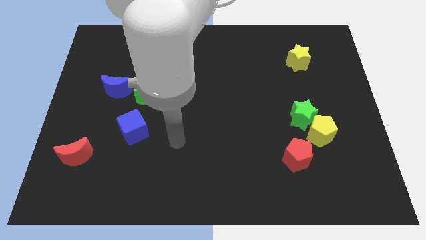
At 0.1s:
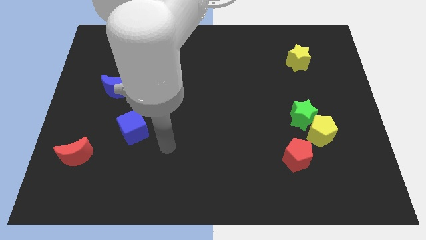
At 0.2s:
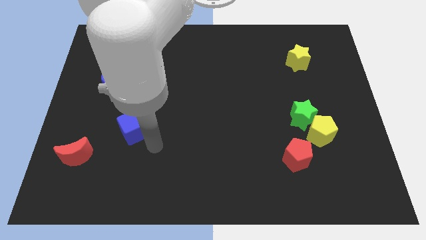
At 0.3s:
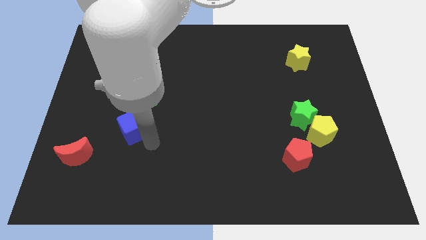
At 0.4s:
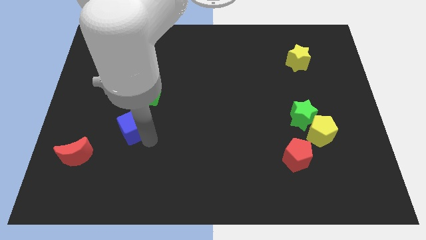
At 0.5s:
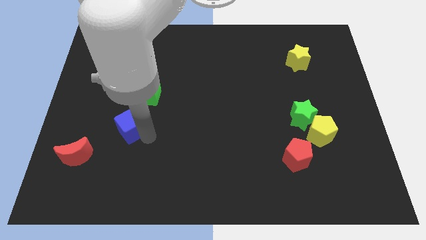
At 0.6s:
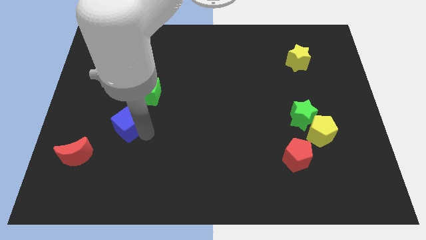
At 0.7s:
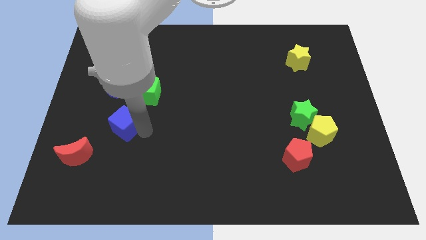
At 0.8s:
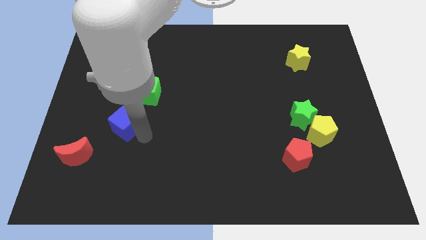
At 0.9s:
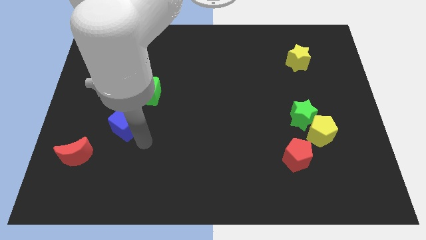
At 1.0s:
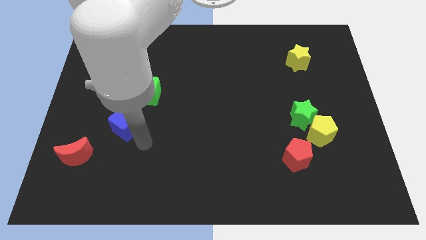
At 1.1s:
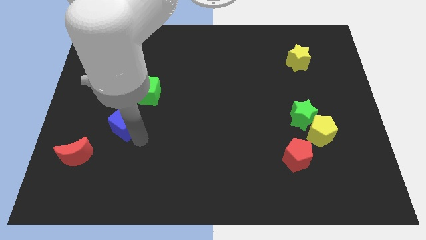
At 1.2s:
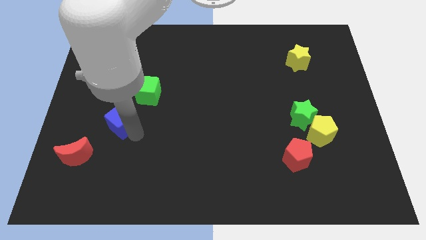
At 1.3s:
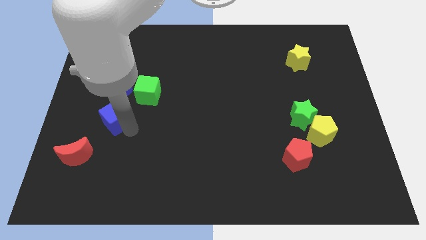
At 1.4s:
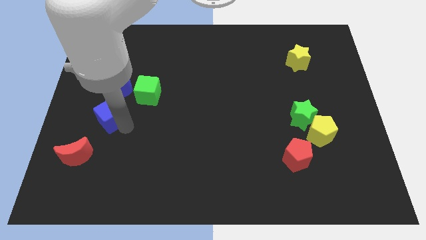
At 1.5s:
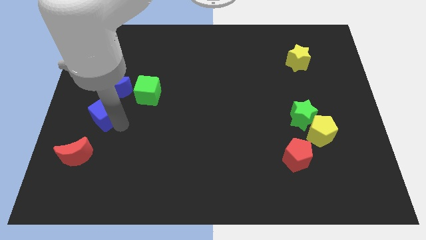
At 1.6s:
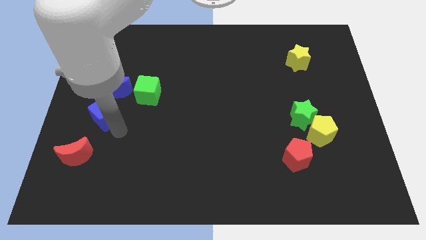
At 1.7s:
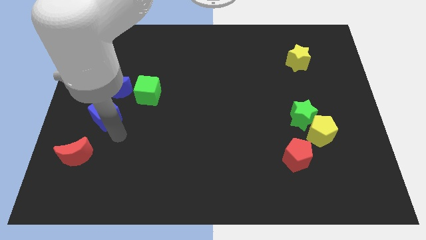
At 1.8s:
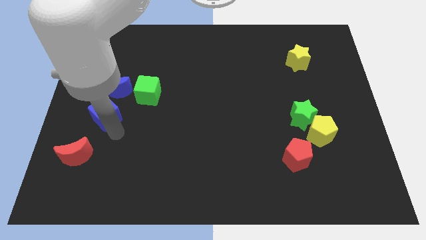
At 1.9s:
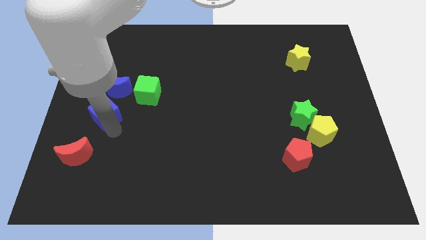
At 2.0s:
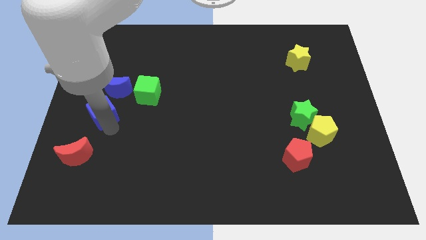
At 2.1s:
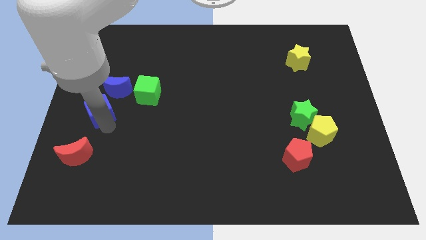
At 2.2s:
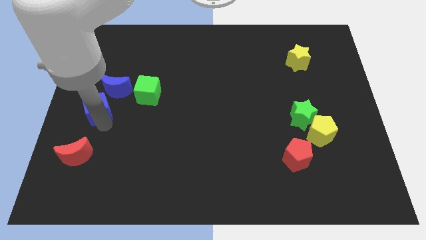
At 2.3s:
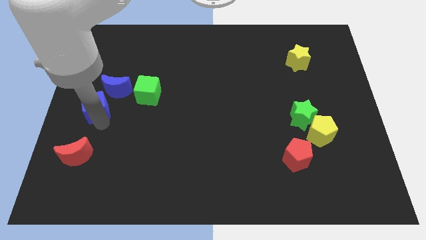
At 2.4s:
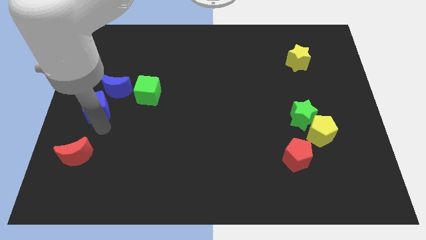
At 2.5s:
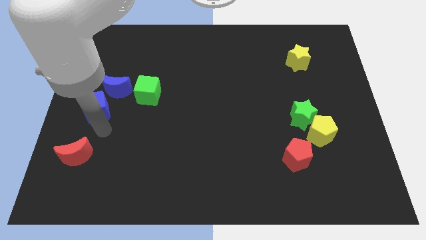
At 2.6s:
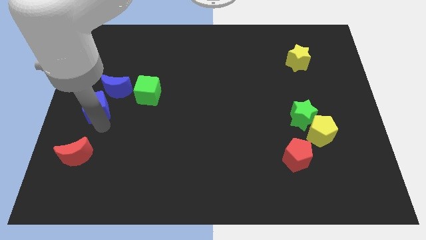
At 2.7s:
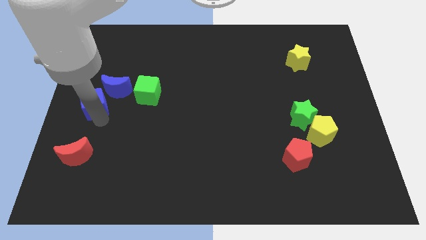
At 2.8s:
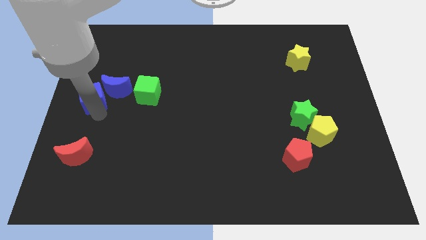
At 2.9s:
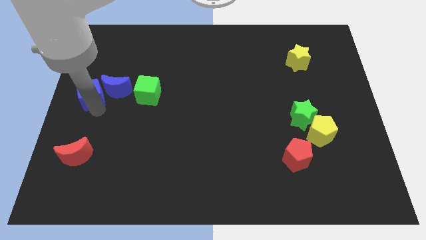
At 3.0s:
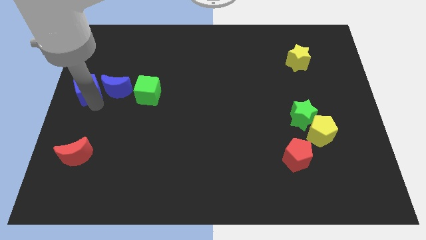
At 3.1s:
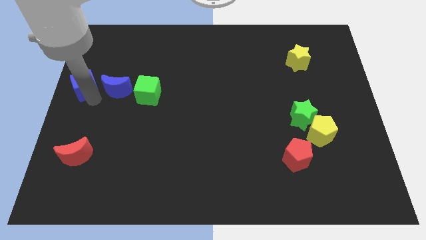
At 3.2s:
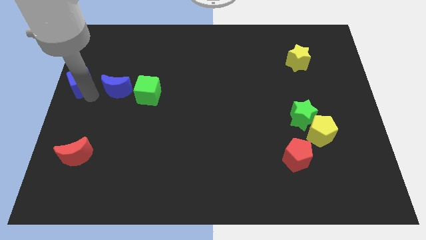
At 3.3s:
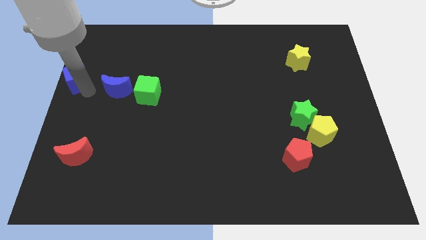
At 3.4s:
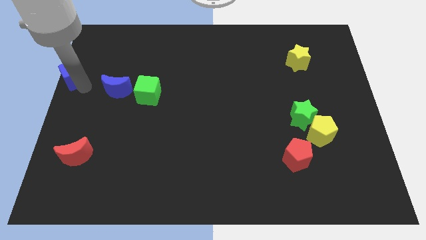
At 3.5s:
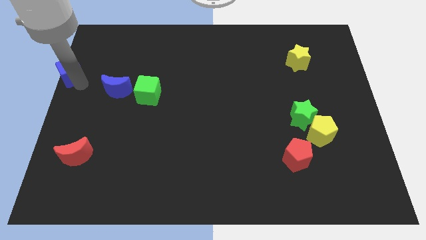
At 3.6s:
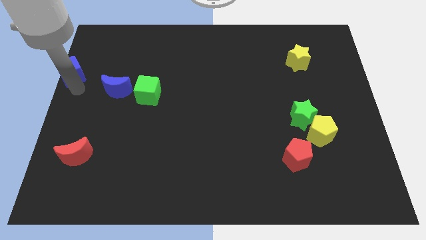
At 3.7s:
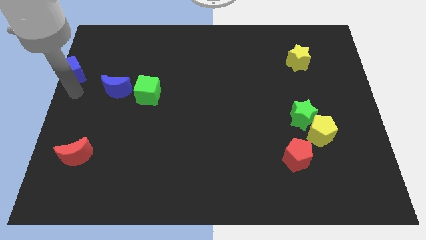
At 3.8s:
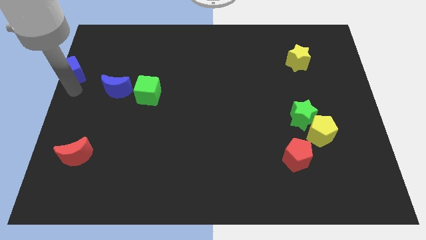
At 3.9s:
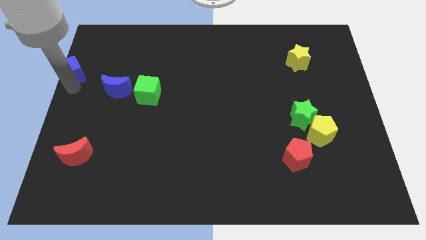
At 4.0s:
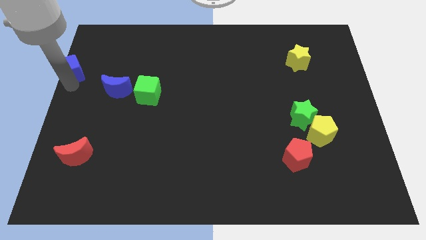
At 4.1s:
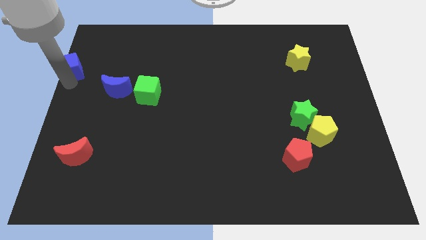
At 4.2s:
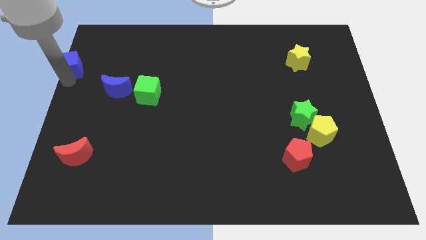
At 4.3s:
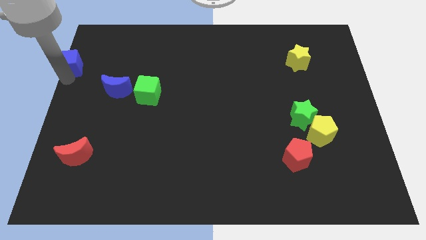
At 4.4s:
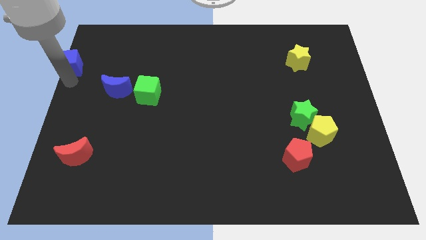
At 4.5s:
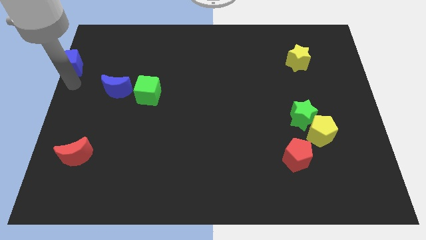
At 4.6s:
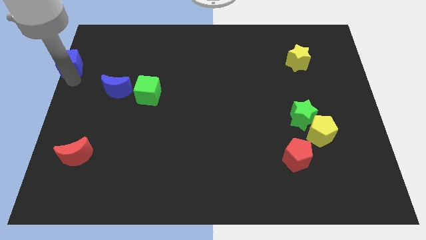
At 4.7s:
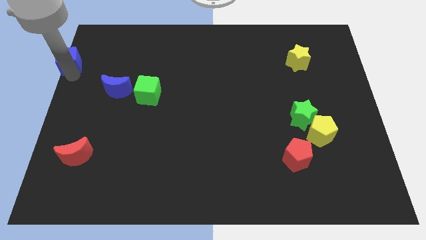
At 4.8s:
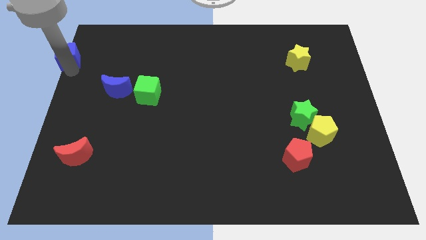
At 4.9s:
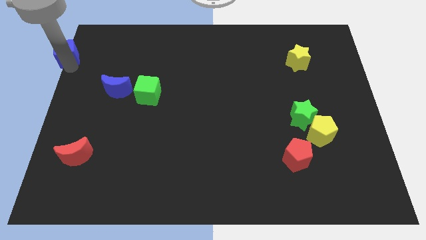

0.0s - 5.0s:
move the blue cube to the top left of the board

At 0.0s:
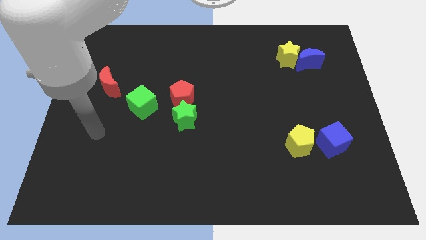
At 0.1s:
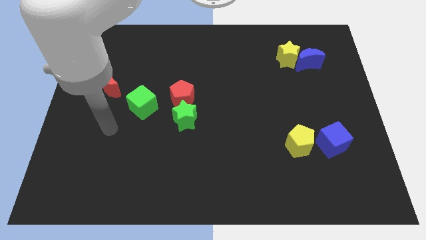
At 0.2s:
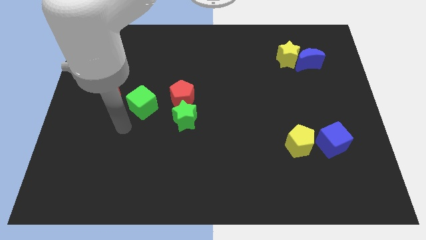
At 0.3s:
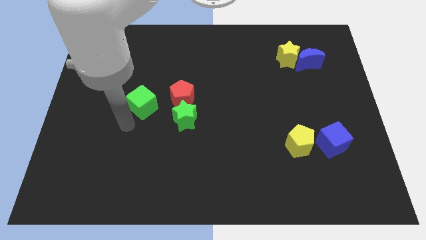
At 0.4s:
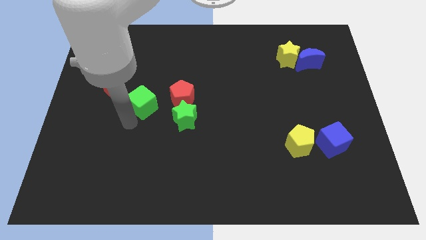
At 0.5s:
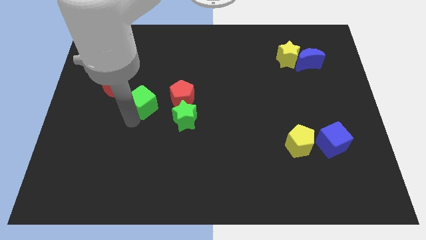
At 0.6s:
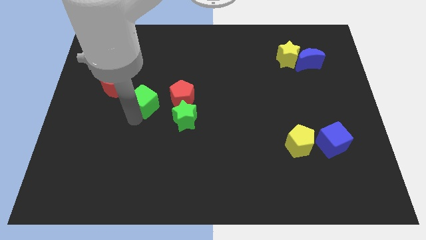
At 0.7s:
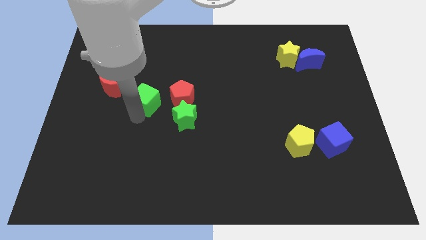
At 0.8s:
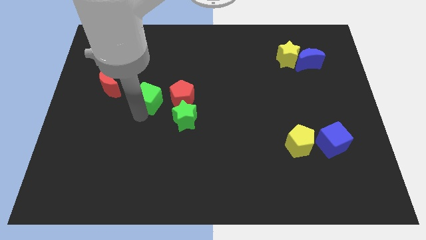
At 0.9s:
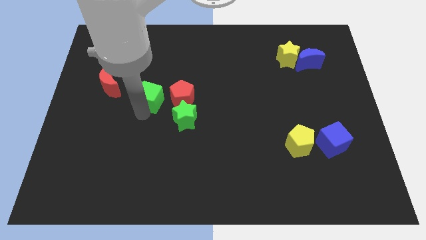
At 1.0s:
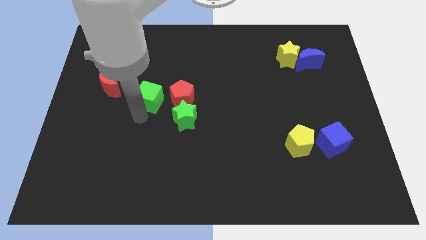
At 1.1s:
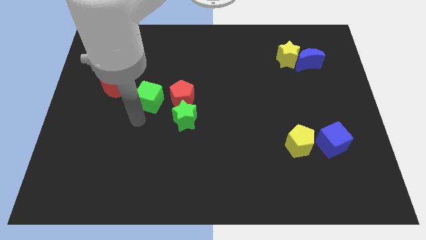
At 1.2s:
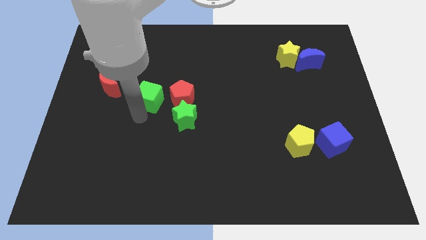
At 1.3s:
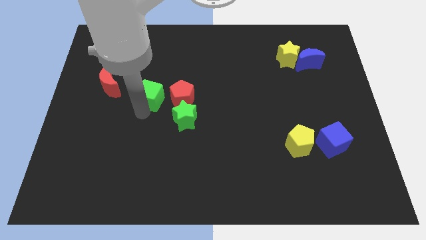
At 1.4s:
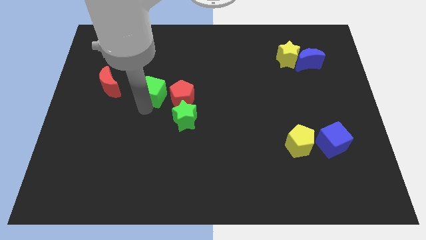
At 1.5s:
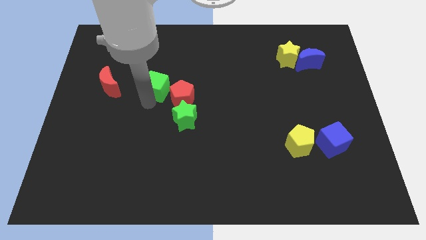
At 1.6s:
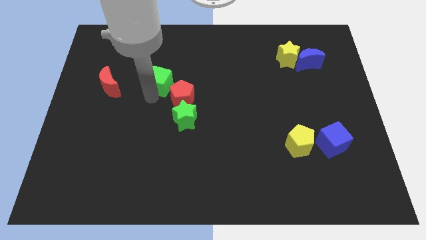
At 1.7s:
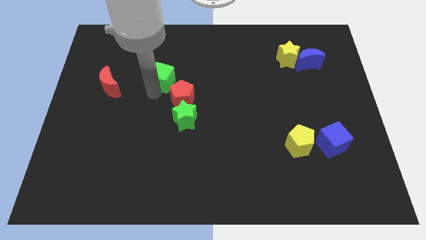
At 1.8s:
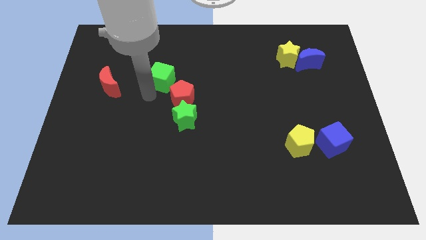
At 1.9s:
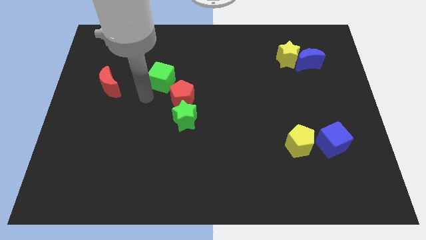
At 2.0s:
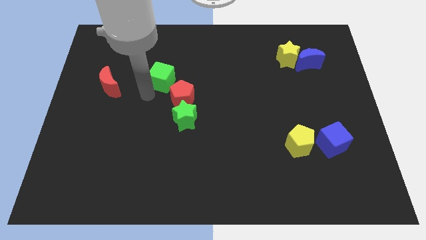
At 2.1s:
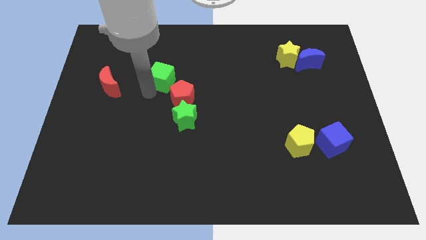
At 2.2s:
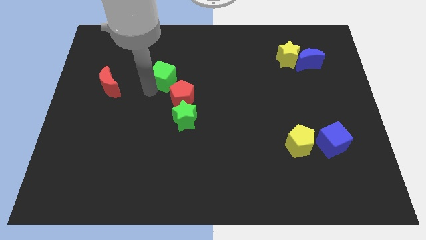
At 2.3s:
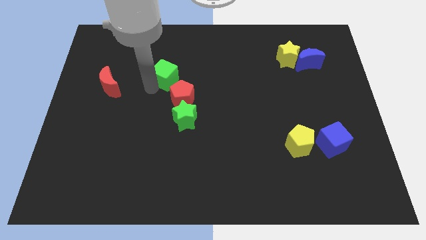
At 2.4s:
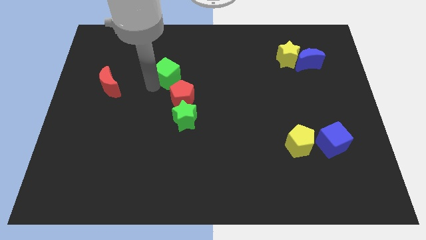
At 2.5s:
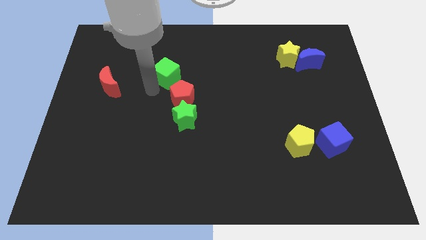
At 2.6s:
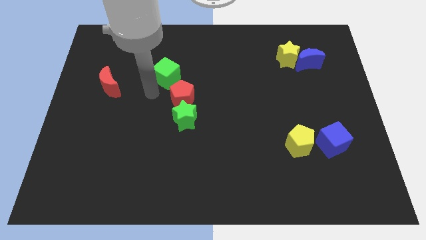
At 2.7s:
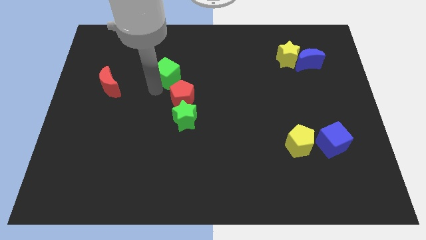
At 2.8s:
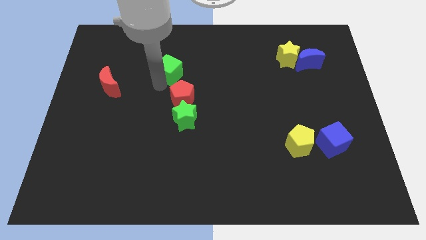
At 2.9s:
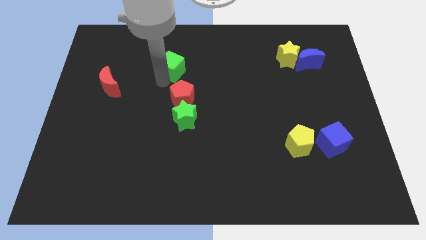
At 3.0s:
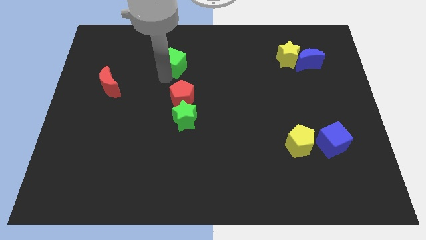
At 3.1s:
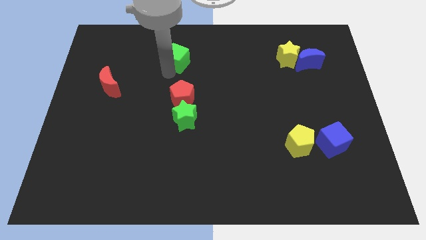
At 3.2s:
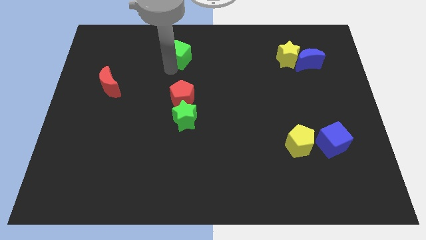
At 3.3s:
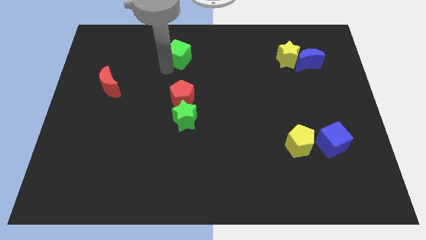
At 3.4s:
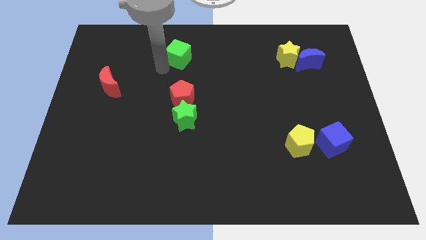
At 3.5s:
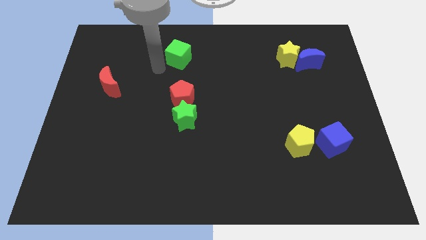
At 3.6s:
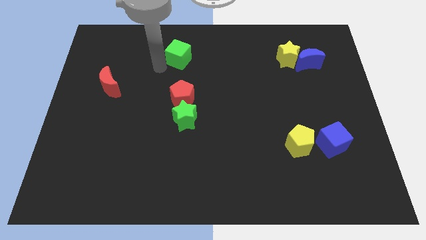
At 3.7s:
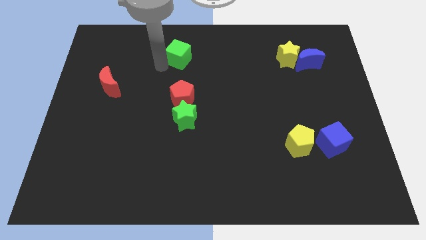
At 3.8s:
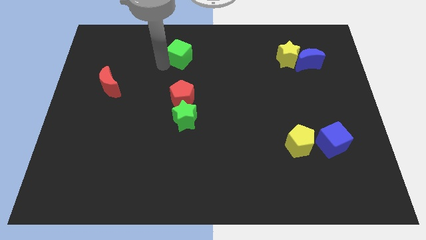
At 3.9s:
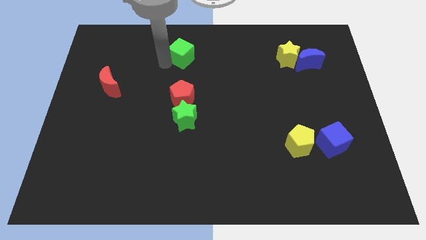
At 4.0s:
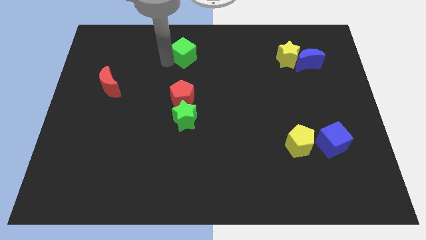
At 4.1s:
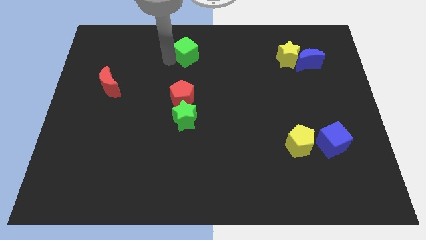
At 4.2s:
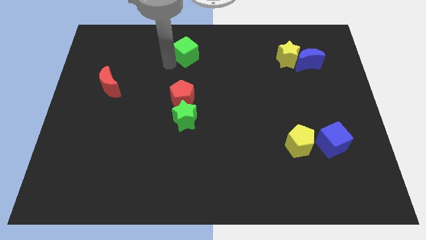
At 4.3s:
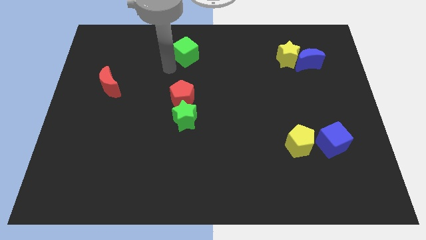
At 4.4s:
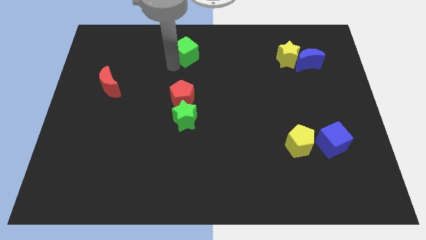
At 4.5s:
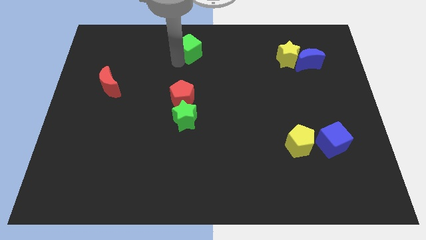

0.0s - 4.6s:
put the green cube to the towards your base
